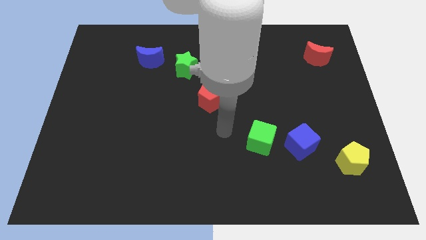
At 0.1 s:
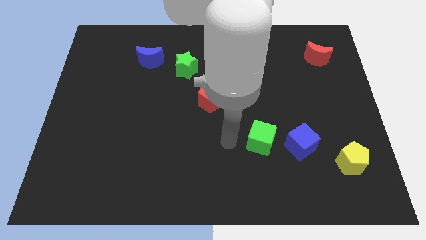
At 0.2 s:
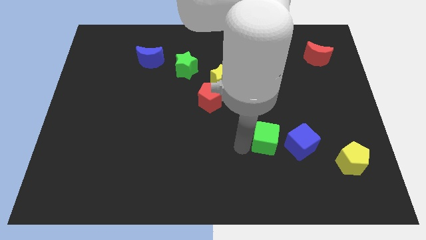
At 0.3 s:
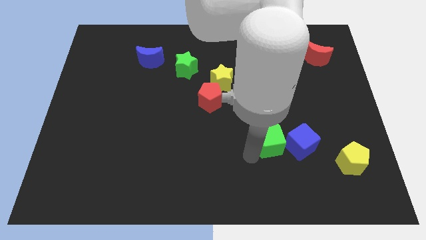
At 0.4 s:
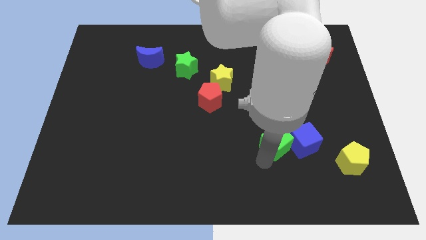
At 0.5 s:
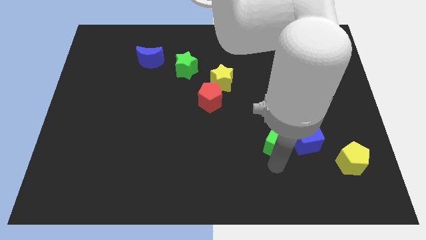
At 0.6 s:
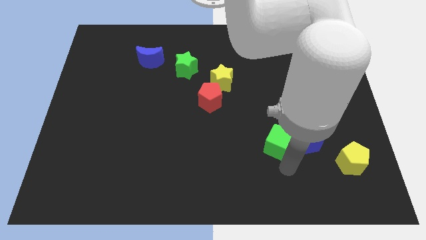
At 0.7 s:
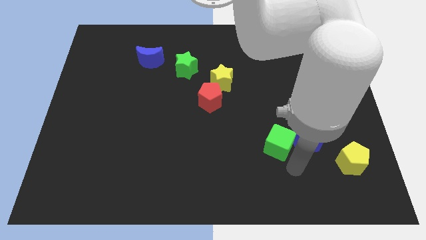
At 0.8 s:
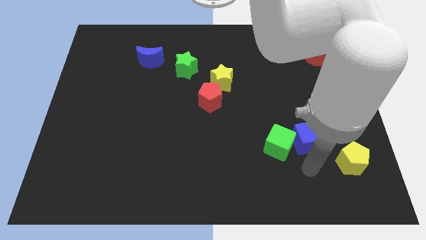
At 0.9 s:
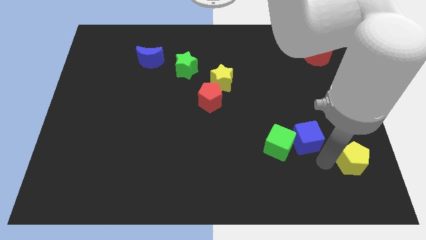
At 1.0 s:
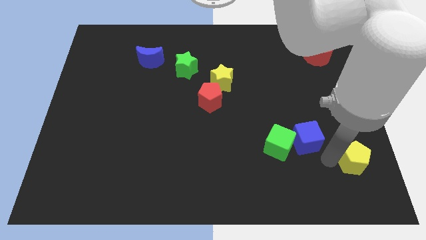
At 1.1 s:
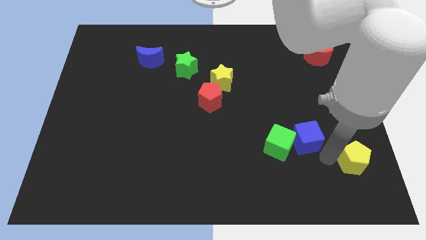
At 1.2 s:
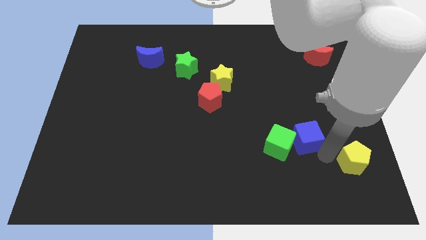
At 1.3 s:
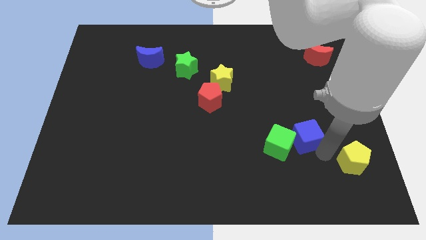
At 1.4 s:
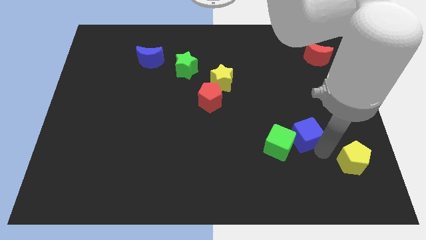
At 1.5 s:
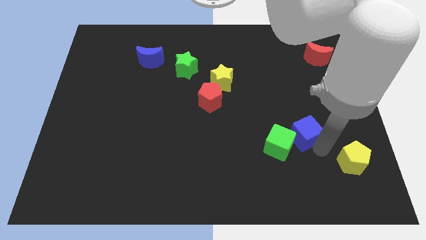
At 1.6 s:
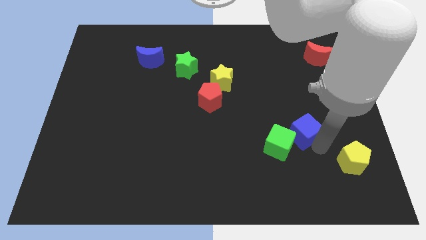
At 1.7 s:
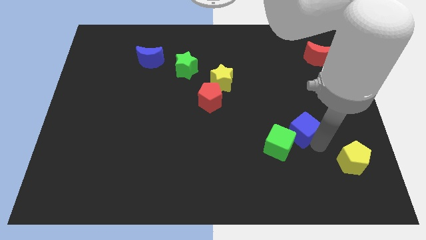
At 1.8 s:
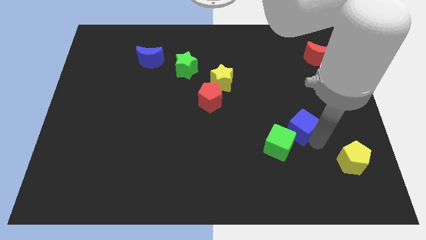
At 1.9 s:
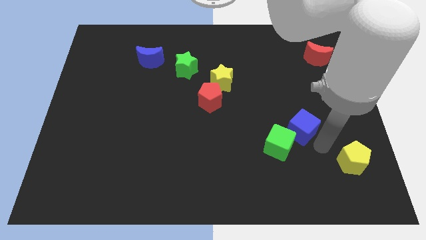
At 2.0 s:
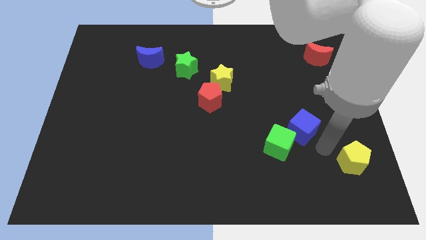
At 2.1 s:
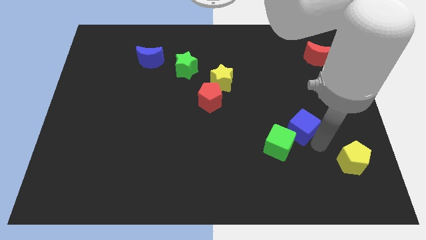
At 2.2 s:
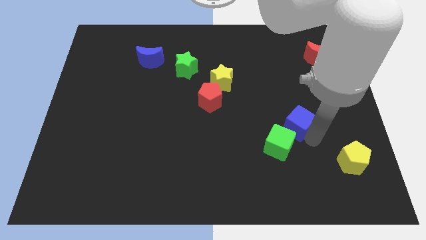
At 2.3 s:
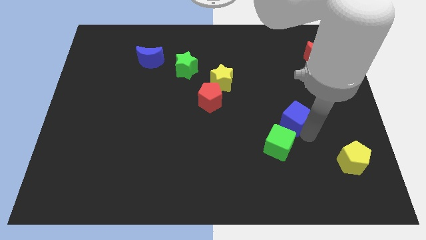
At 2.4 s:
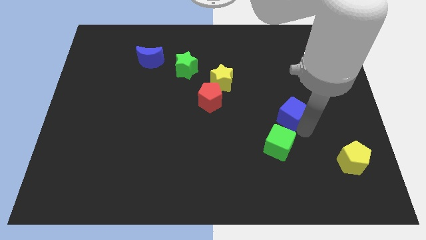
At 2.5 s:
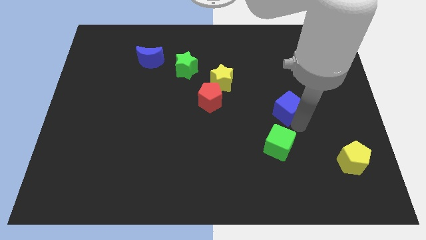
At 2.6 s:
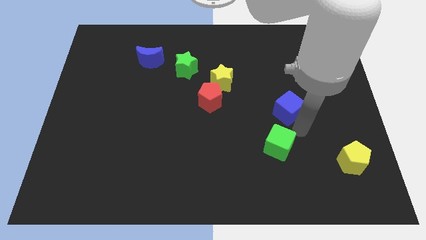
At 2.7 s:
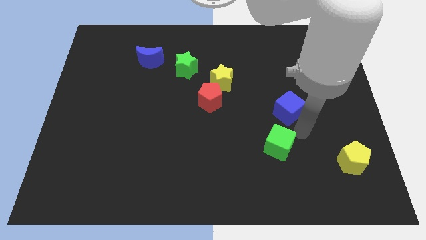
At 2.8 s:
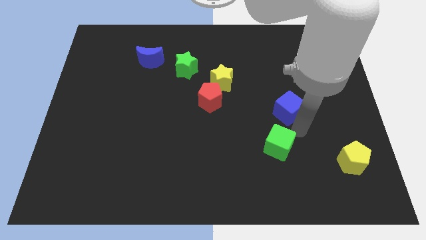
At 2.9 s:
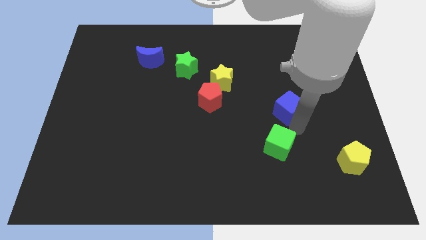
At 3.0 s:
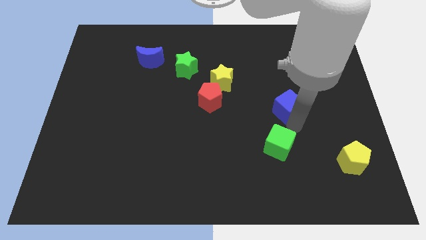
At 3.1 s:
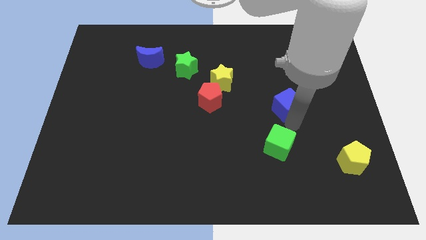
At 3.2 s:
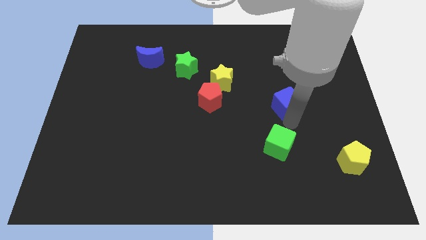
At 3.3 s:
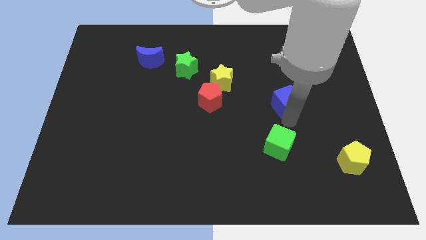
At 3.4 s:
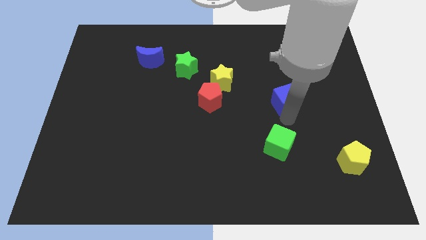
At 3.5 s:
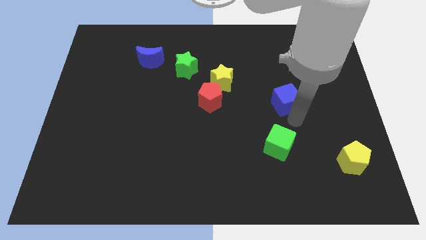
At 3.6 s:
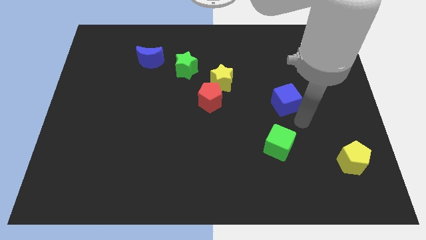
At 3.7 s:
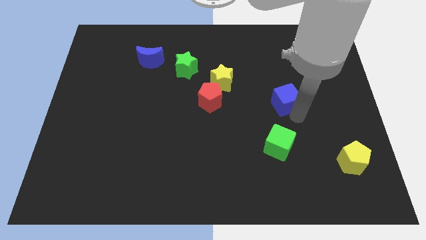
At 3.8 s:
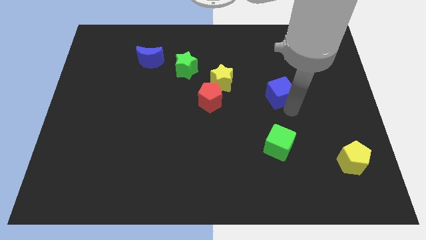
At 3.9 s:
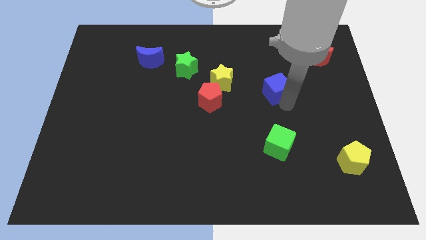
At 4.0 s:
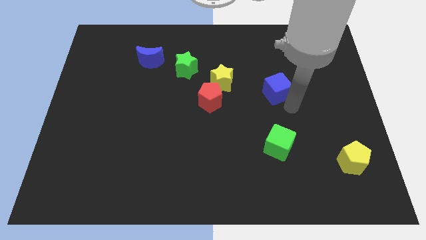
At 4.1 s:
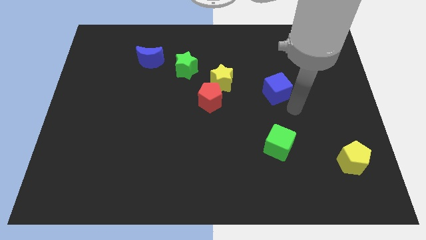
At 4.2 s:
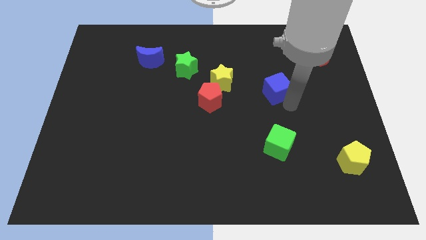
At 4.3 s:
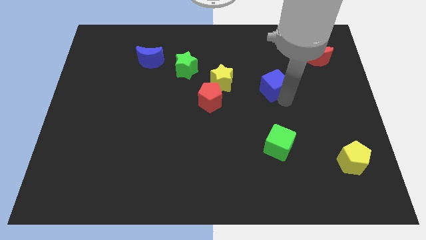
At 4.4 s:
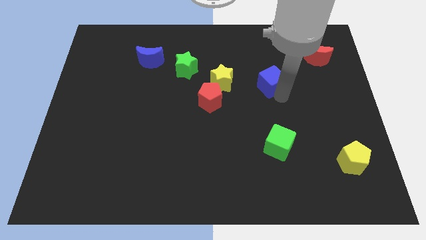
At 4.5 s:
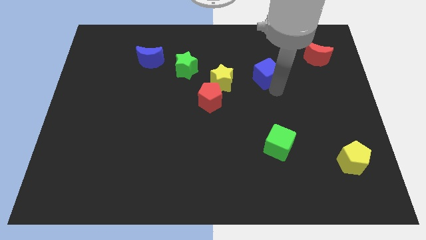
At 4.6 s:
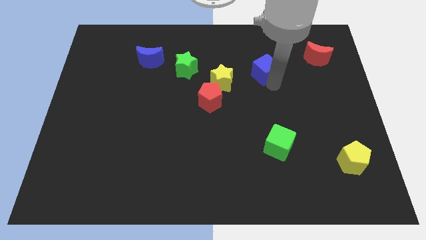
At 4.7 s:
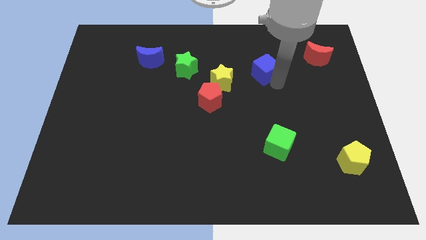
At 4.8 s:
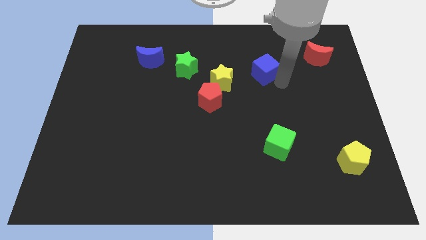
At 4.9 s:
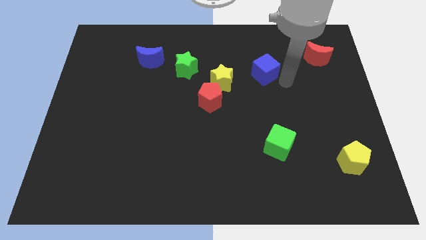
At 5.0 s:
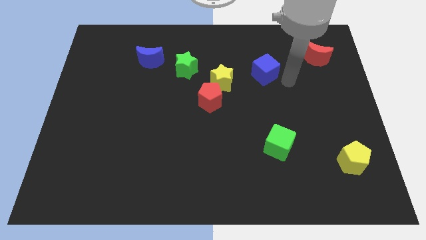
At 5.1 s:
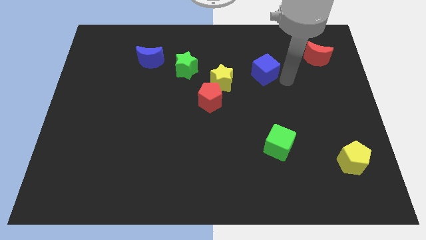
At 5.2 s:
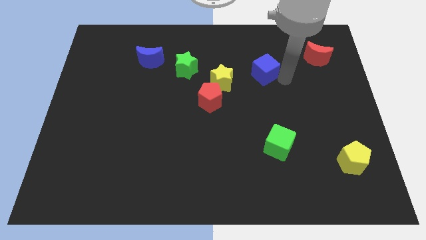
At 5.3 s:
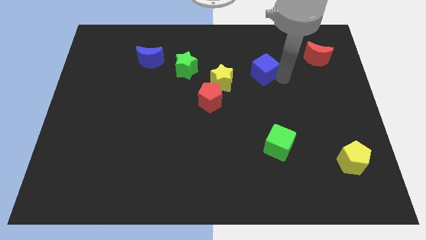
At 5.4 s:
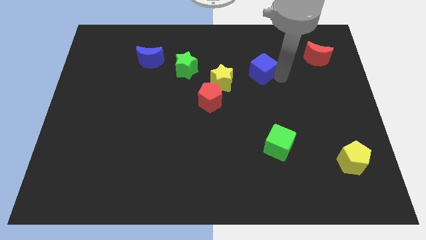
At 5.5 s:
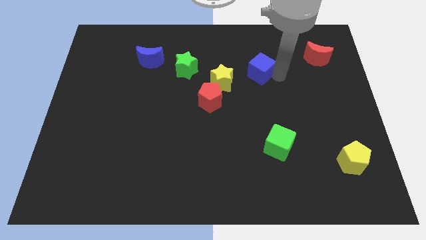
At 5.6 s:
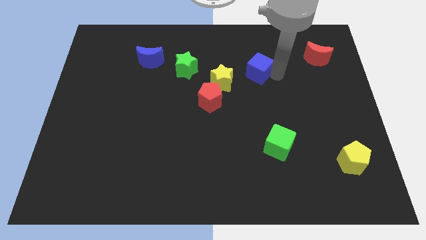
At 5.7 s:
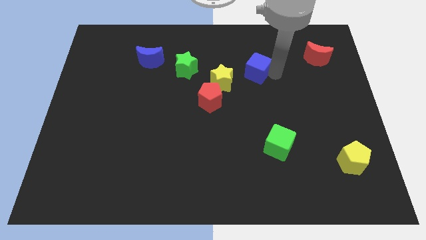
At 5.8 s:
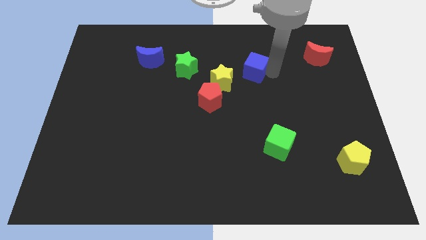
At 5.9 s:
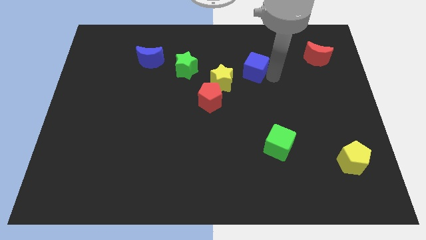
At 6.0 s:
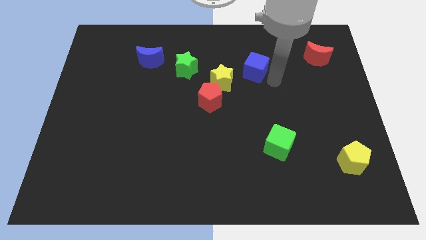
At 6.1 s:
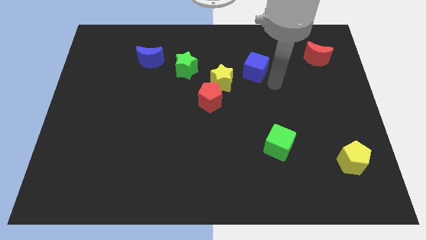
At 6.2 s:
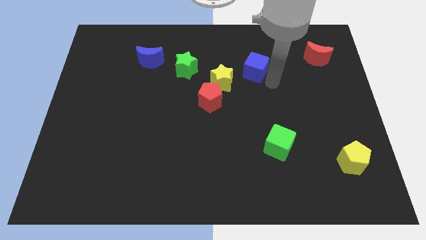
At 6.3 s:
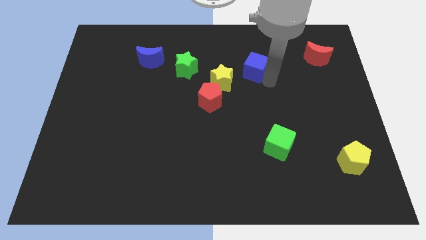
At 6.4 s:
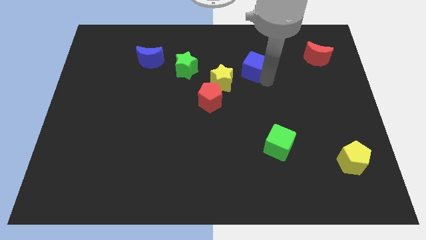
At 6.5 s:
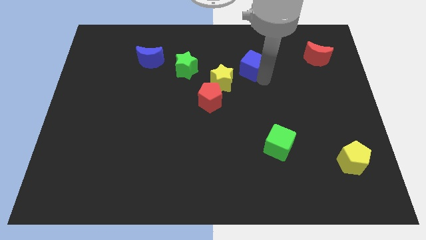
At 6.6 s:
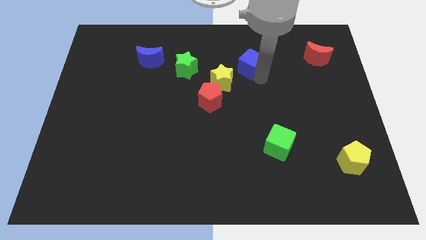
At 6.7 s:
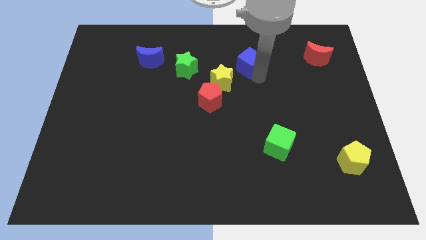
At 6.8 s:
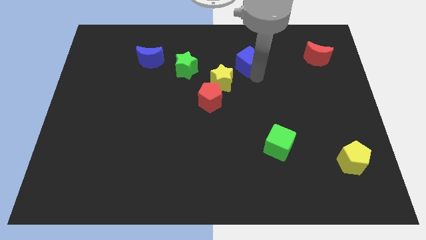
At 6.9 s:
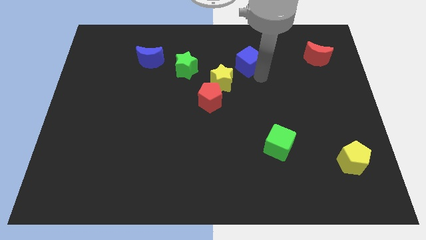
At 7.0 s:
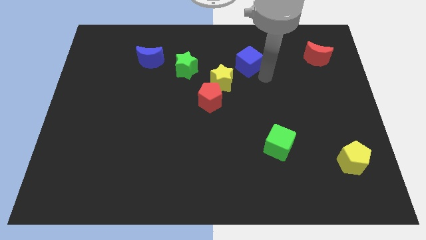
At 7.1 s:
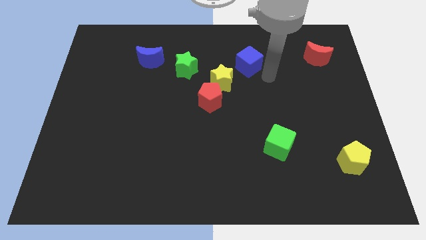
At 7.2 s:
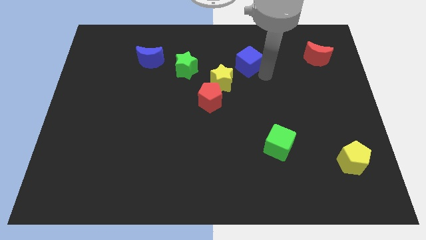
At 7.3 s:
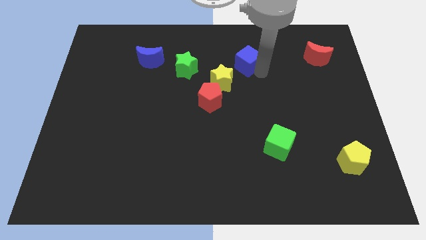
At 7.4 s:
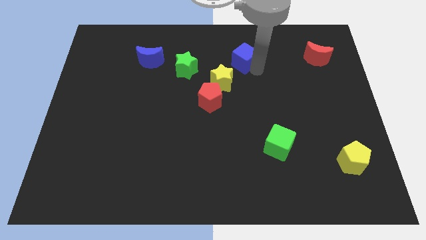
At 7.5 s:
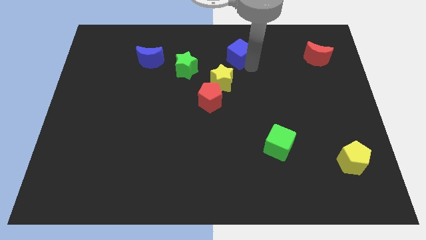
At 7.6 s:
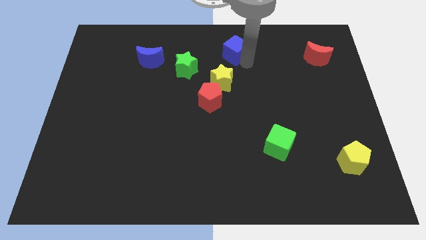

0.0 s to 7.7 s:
move the blue cube to the top
